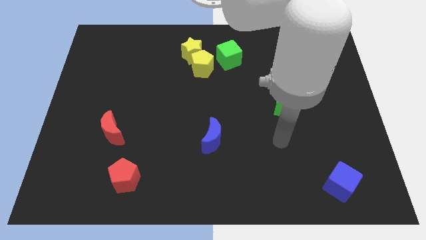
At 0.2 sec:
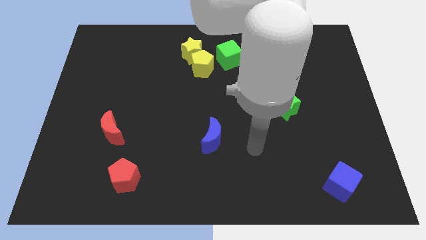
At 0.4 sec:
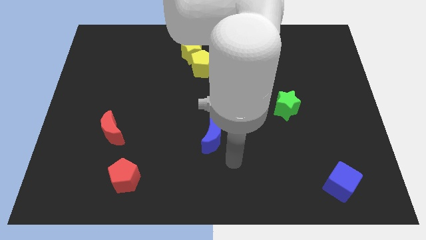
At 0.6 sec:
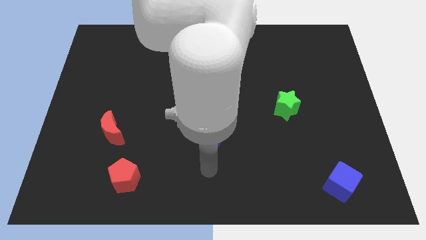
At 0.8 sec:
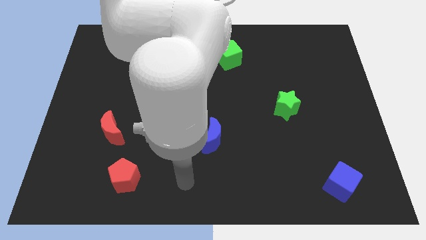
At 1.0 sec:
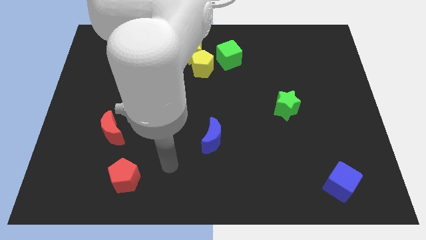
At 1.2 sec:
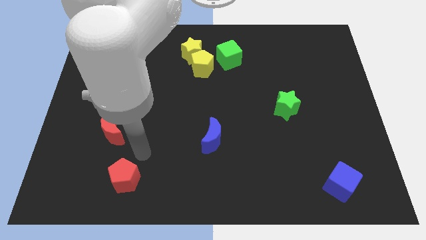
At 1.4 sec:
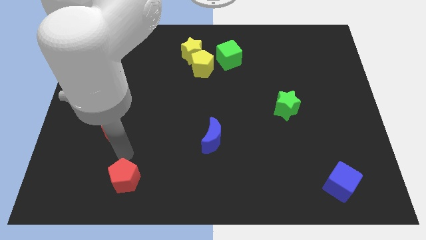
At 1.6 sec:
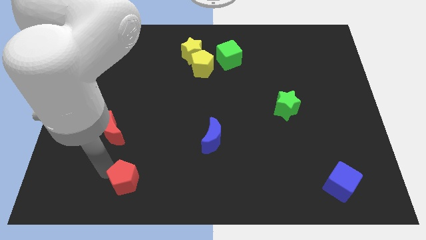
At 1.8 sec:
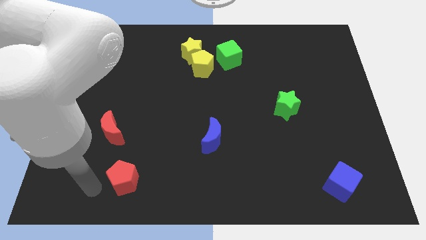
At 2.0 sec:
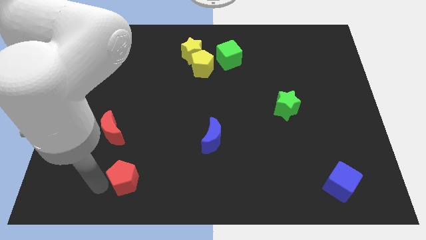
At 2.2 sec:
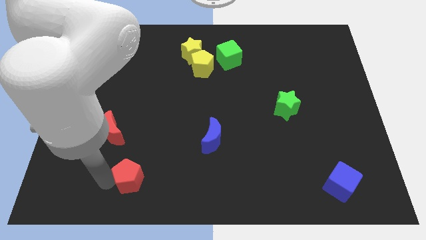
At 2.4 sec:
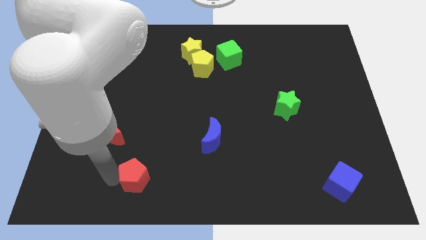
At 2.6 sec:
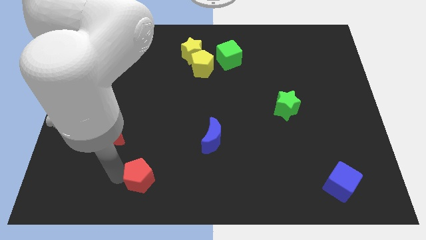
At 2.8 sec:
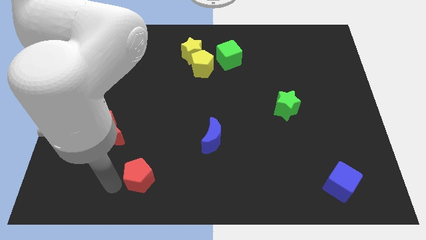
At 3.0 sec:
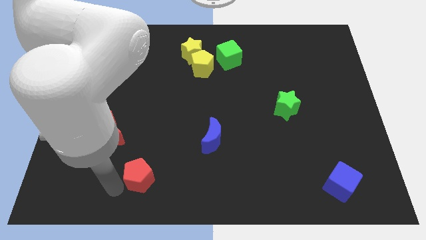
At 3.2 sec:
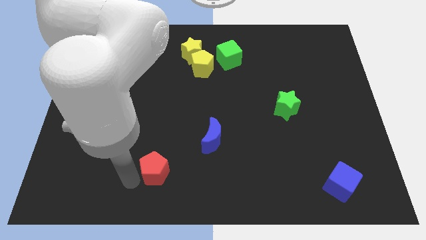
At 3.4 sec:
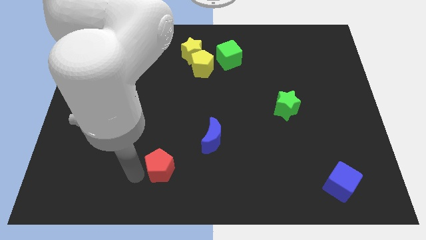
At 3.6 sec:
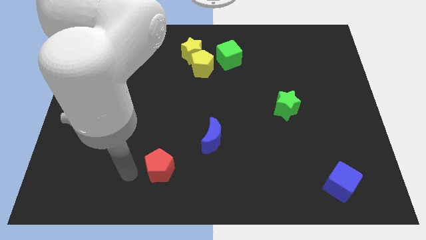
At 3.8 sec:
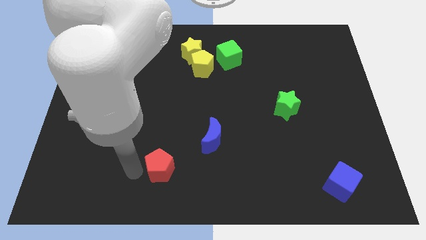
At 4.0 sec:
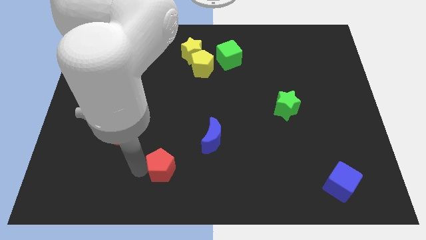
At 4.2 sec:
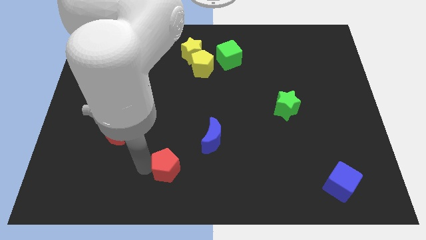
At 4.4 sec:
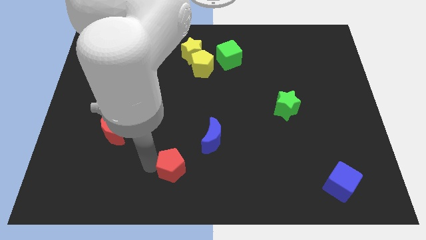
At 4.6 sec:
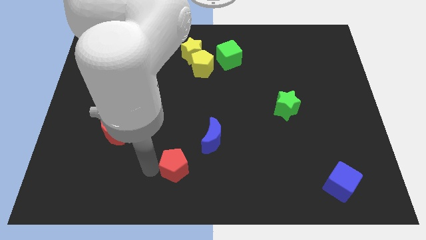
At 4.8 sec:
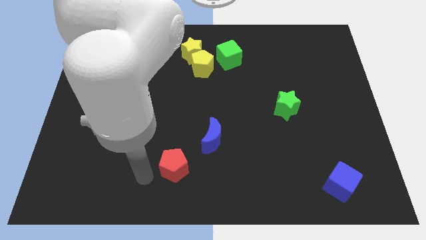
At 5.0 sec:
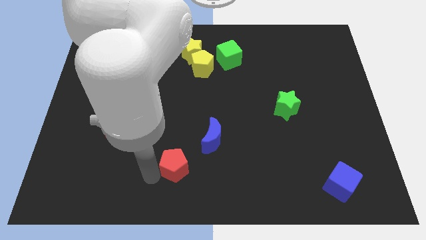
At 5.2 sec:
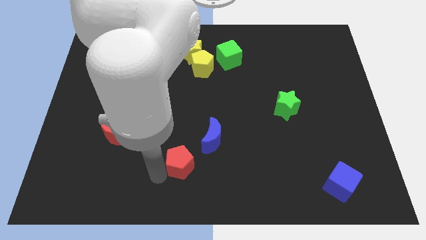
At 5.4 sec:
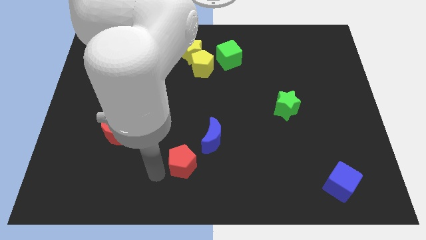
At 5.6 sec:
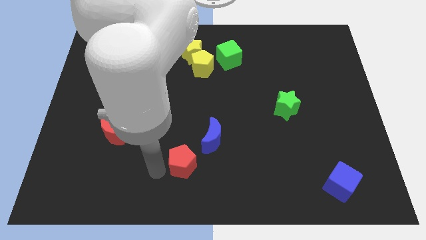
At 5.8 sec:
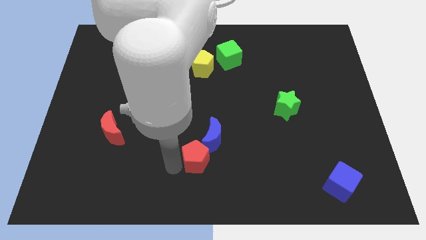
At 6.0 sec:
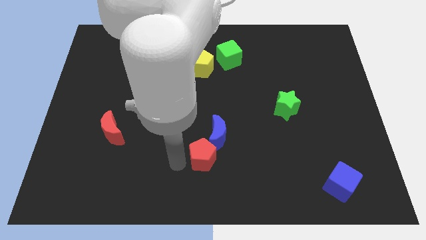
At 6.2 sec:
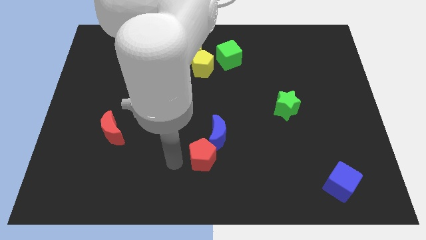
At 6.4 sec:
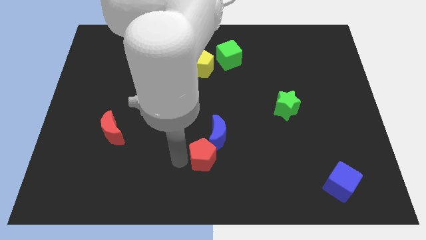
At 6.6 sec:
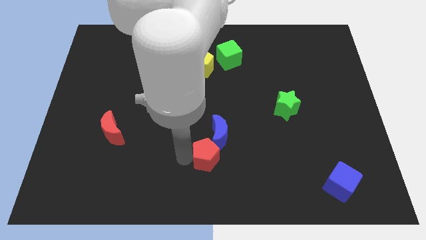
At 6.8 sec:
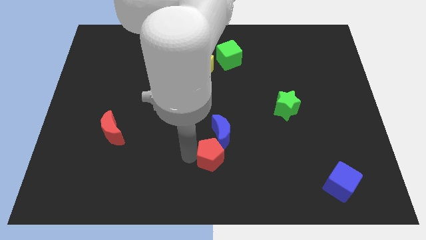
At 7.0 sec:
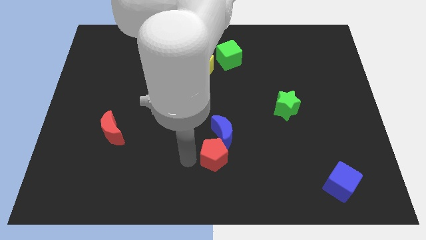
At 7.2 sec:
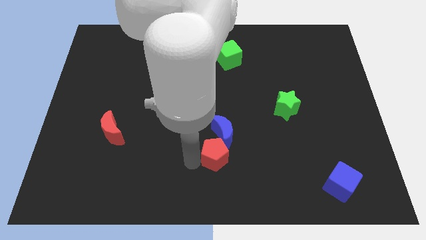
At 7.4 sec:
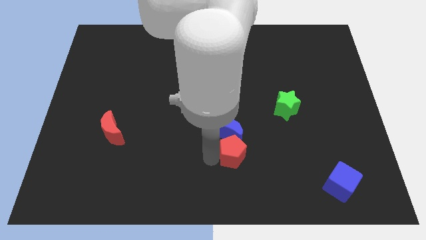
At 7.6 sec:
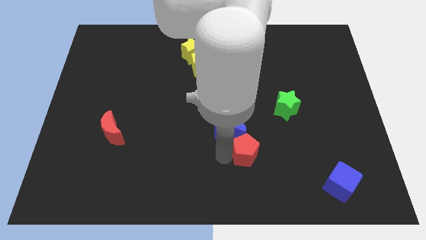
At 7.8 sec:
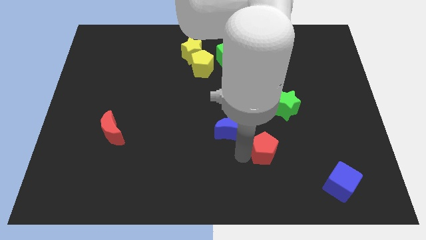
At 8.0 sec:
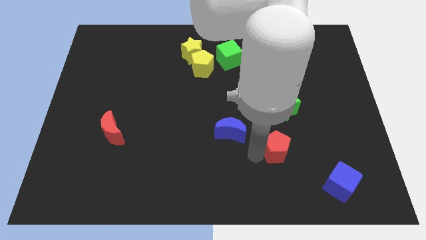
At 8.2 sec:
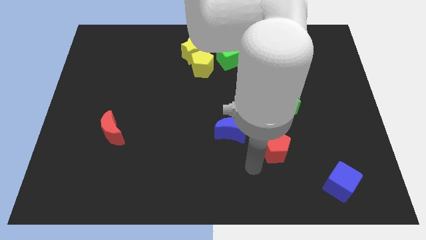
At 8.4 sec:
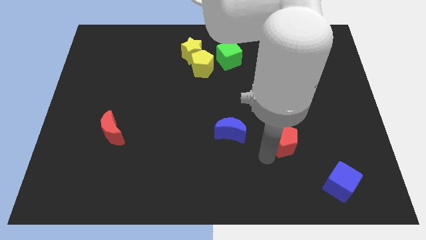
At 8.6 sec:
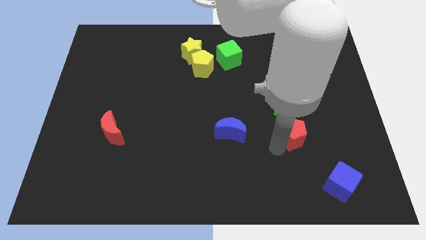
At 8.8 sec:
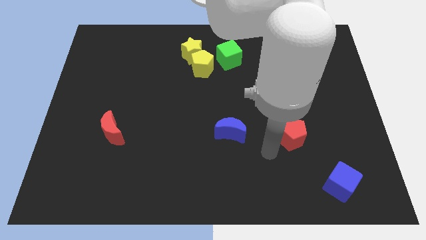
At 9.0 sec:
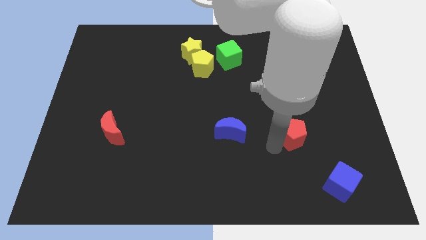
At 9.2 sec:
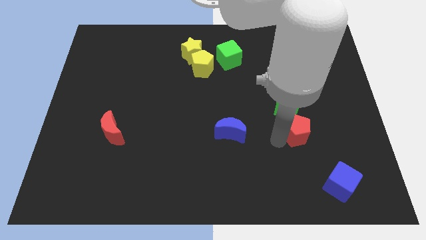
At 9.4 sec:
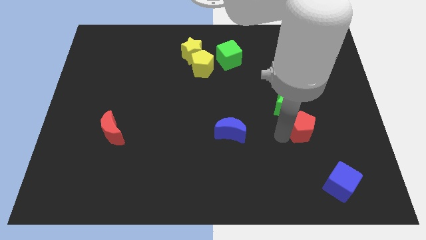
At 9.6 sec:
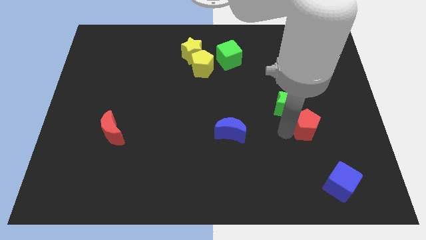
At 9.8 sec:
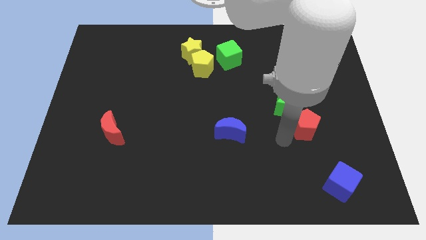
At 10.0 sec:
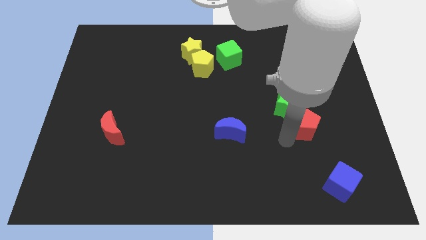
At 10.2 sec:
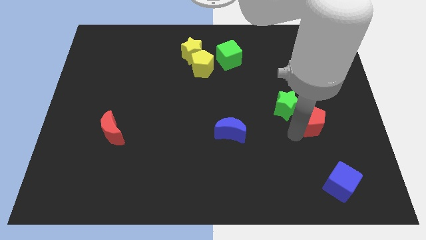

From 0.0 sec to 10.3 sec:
slide the red pentagon right of the green star

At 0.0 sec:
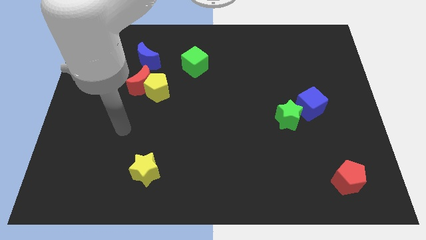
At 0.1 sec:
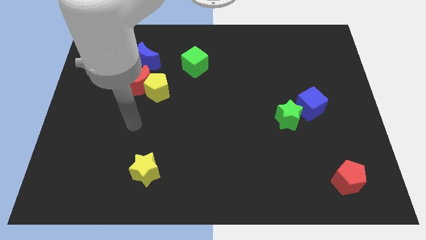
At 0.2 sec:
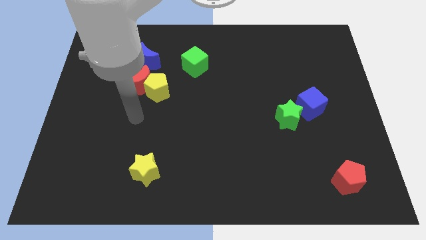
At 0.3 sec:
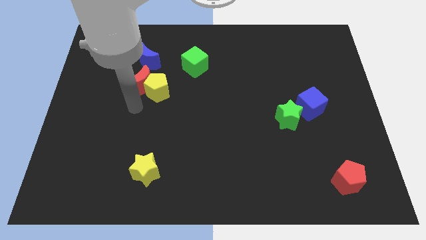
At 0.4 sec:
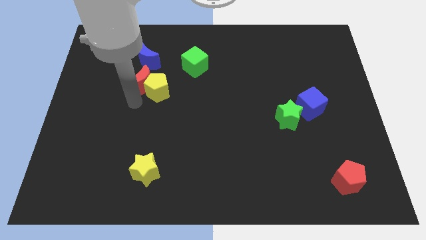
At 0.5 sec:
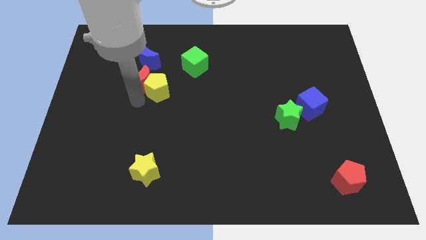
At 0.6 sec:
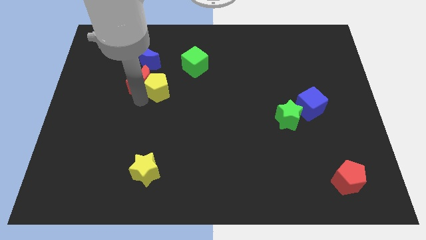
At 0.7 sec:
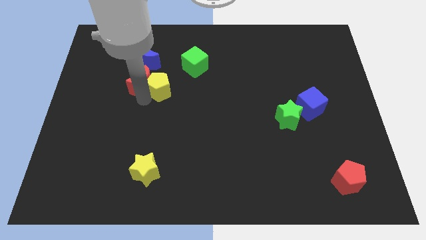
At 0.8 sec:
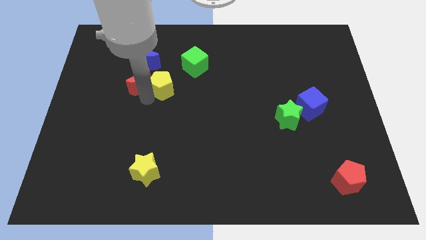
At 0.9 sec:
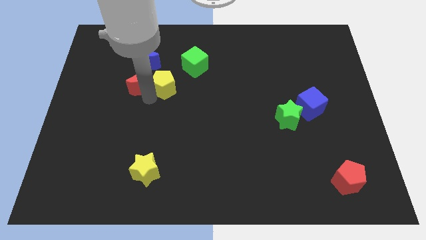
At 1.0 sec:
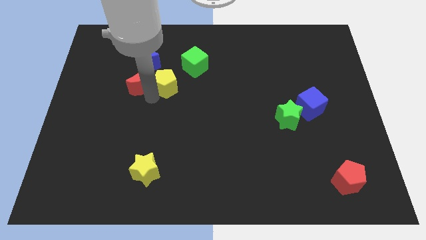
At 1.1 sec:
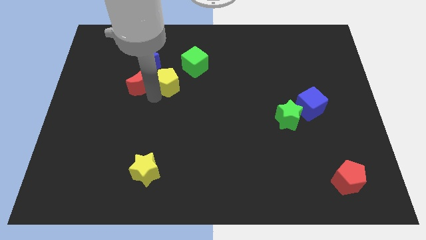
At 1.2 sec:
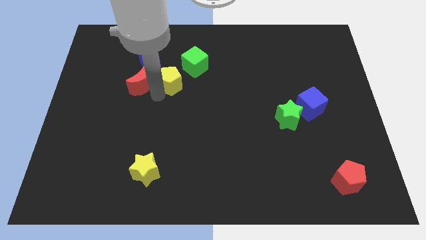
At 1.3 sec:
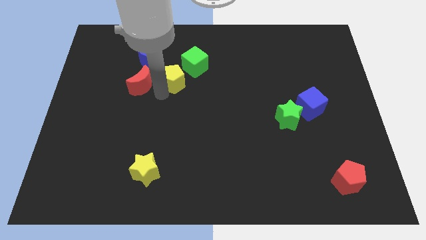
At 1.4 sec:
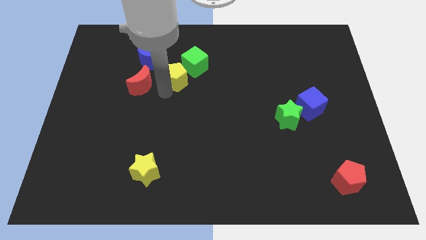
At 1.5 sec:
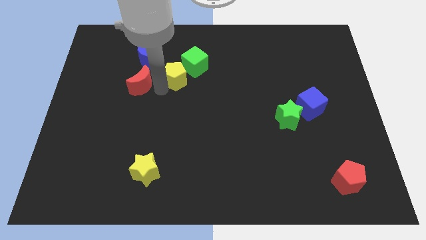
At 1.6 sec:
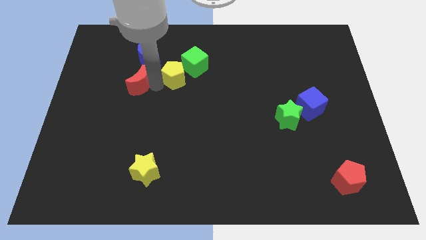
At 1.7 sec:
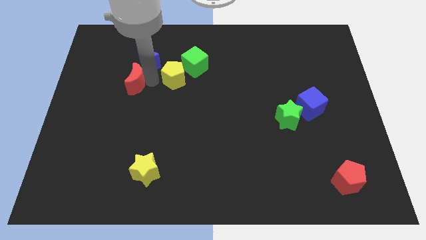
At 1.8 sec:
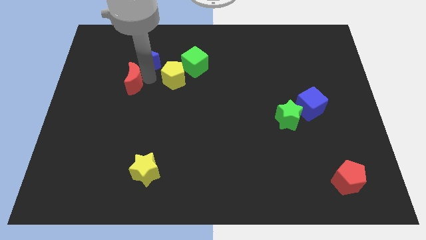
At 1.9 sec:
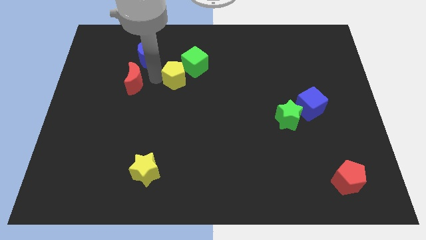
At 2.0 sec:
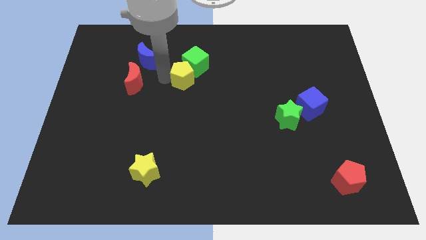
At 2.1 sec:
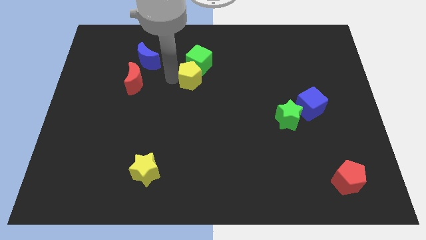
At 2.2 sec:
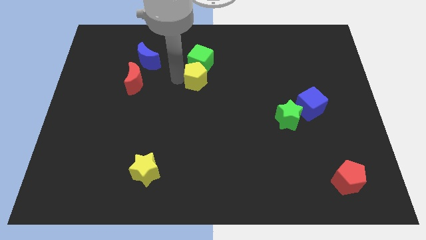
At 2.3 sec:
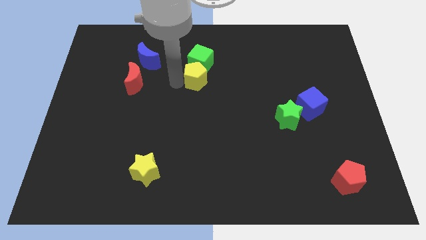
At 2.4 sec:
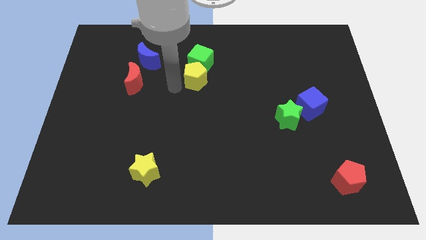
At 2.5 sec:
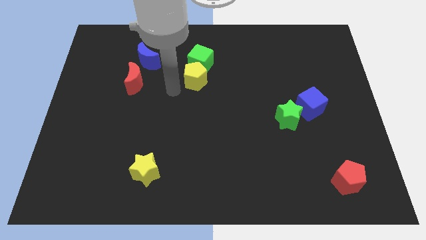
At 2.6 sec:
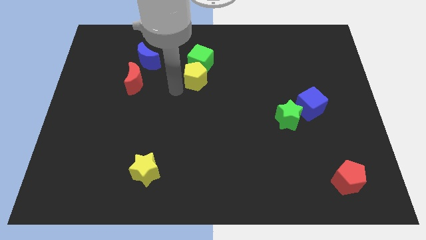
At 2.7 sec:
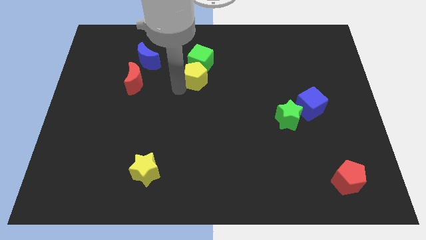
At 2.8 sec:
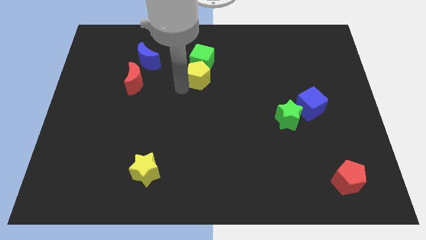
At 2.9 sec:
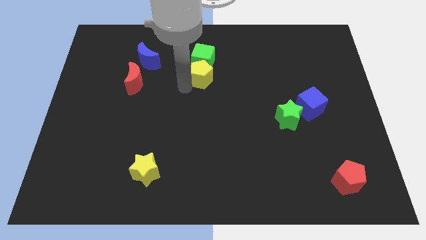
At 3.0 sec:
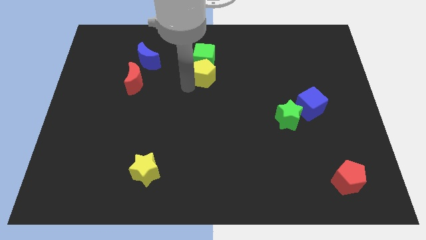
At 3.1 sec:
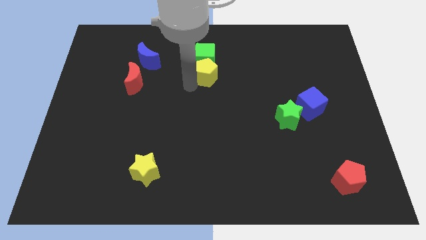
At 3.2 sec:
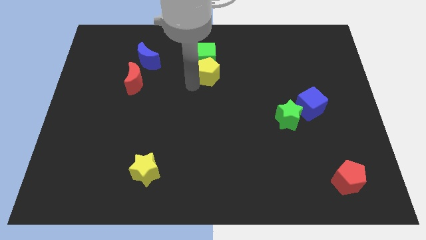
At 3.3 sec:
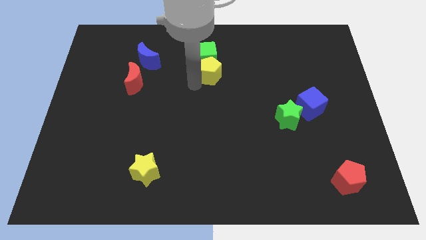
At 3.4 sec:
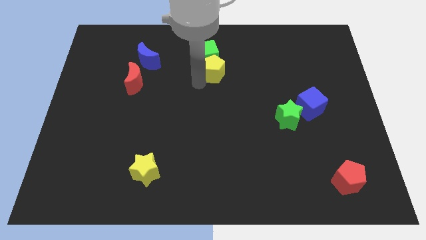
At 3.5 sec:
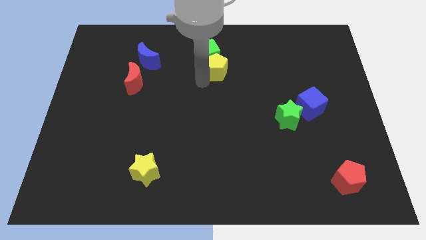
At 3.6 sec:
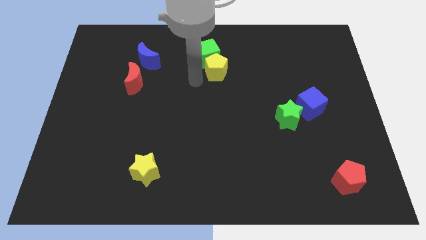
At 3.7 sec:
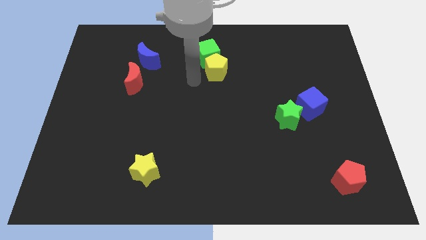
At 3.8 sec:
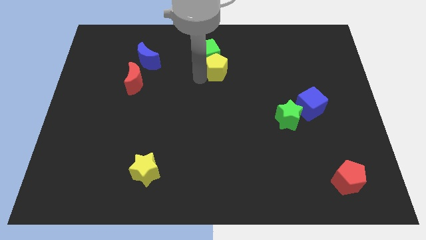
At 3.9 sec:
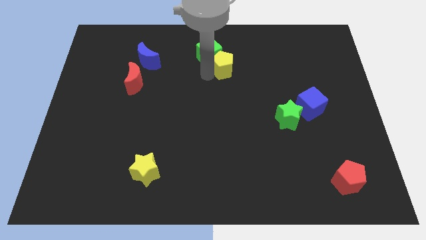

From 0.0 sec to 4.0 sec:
put the yellow pentagon right of the green cube
